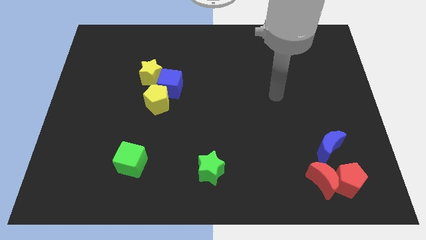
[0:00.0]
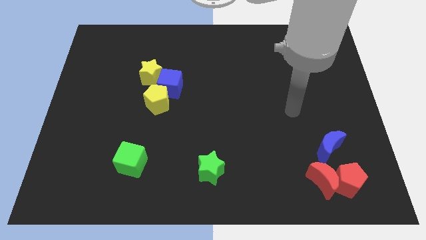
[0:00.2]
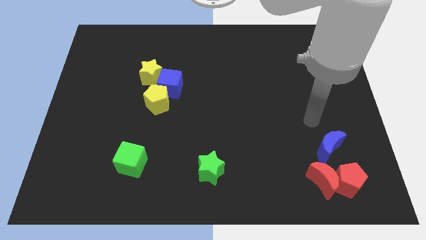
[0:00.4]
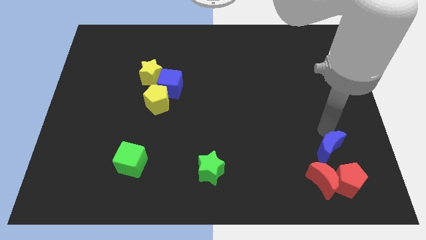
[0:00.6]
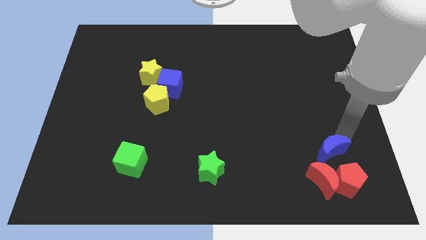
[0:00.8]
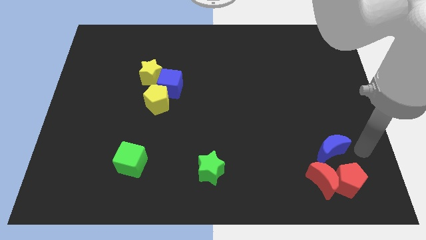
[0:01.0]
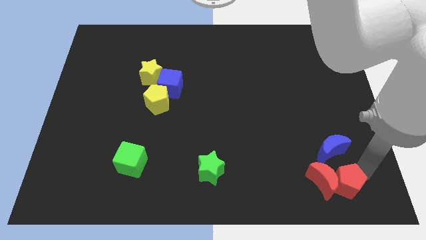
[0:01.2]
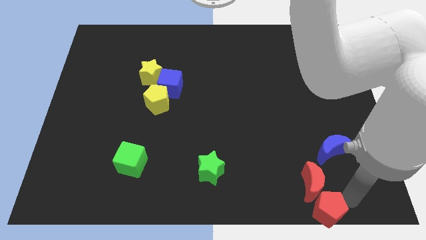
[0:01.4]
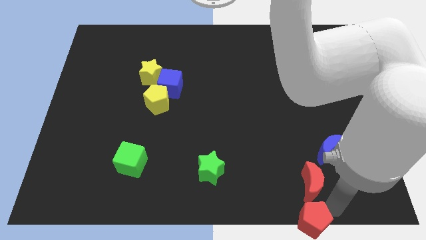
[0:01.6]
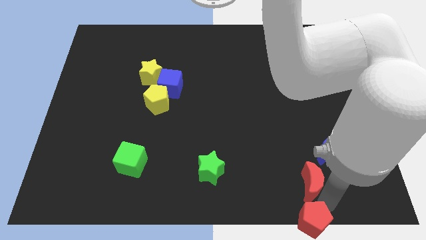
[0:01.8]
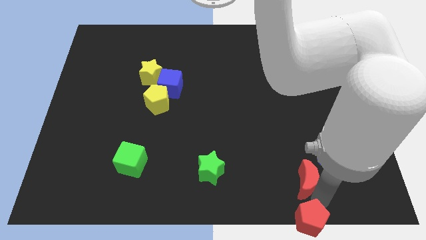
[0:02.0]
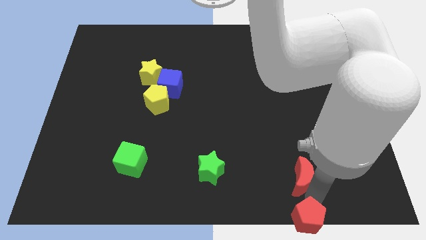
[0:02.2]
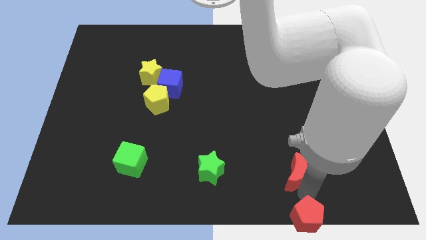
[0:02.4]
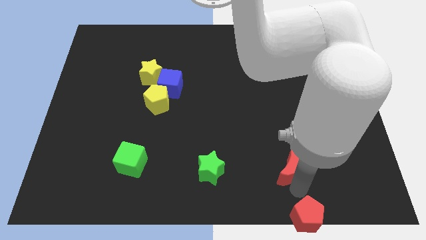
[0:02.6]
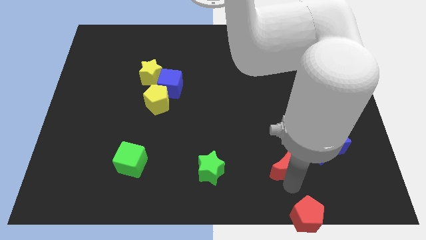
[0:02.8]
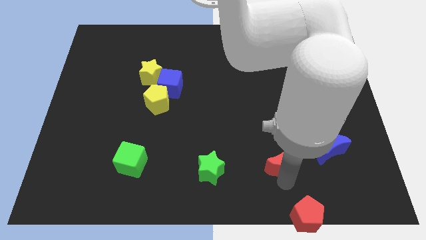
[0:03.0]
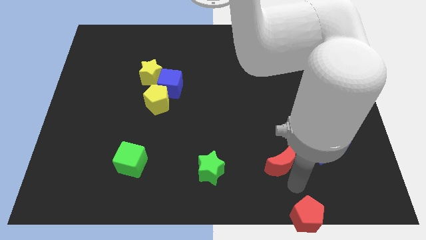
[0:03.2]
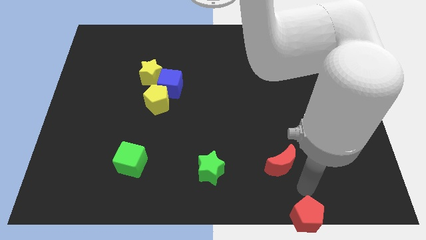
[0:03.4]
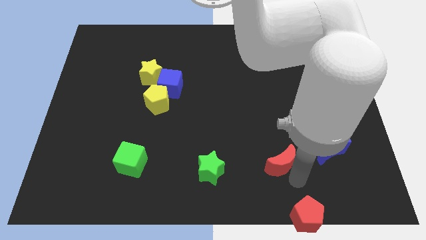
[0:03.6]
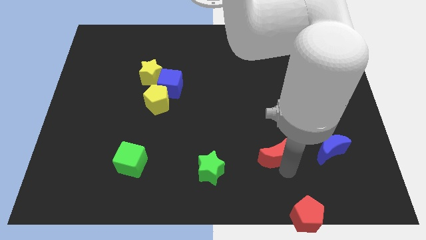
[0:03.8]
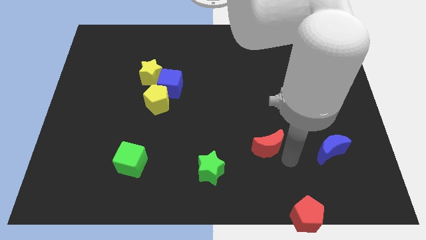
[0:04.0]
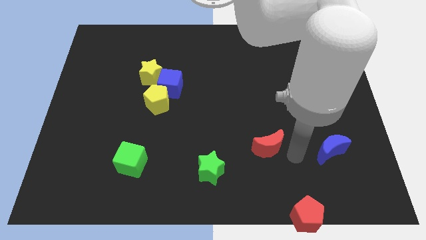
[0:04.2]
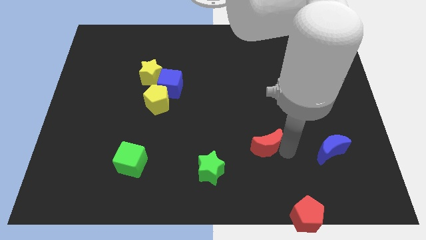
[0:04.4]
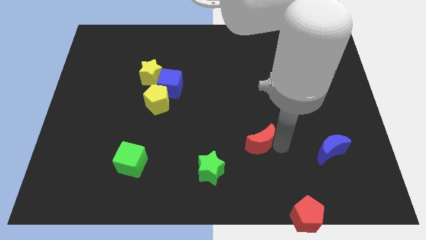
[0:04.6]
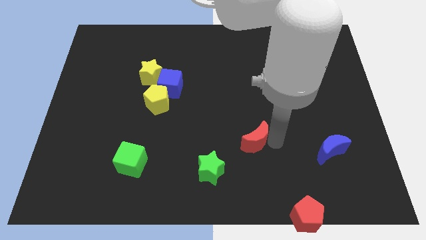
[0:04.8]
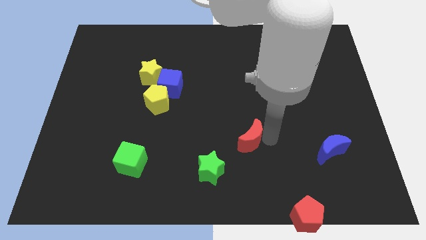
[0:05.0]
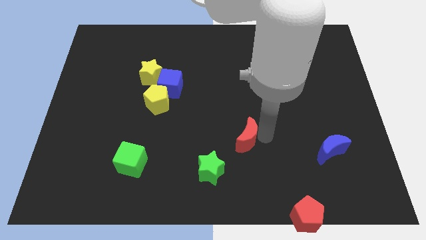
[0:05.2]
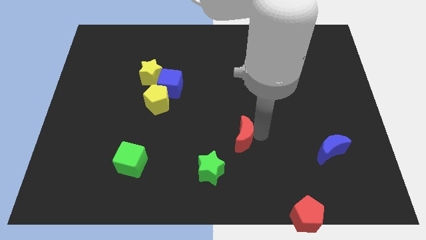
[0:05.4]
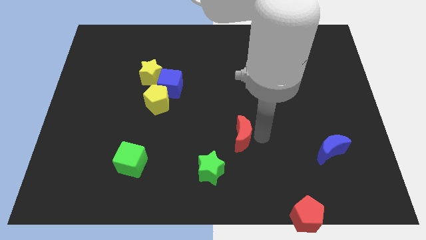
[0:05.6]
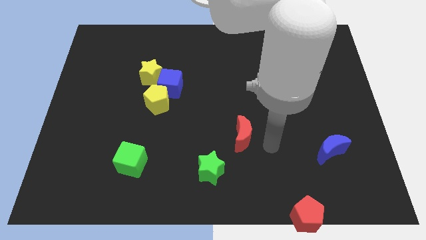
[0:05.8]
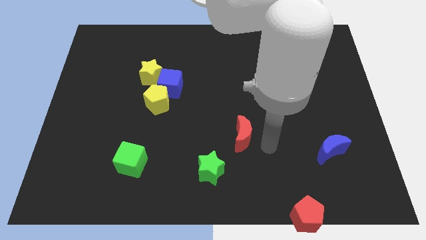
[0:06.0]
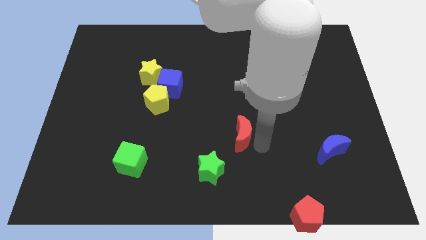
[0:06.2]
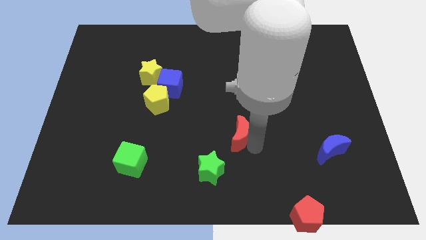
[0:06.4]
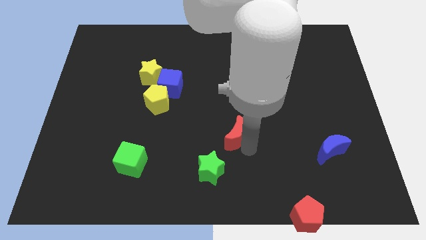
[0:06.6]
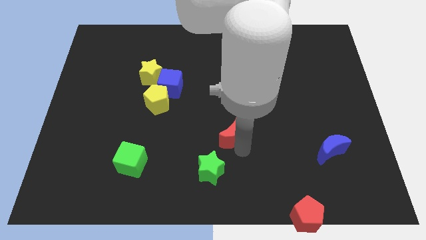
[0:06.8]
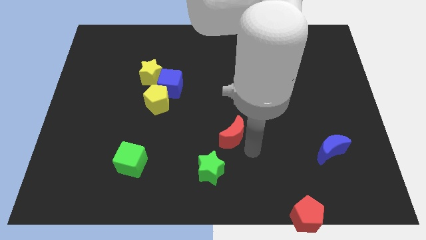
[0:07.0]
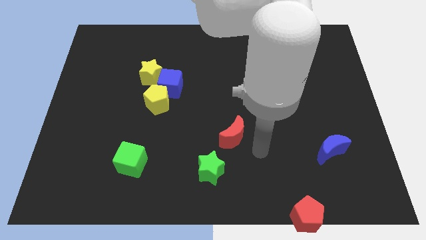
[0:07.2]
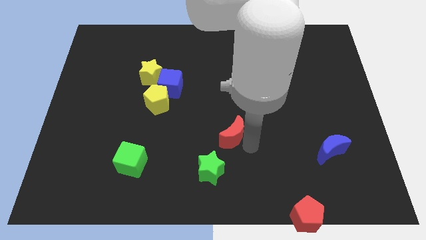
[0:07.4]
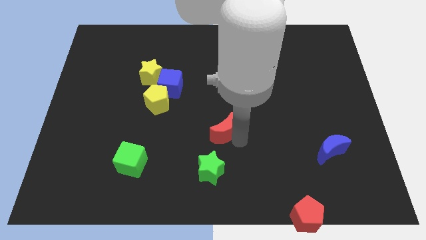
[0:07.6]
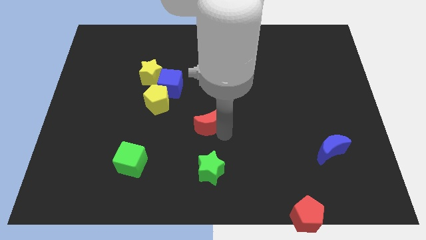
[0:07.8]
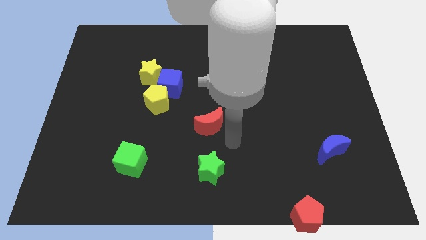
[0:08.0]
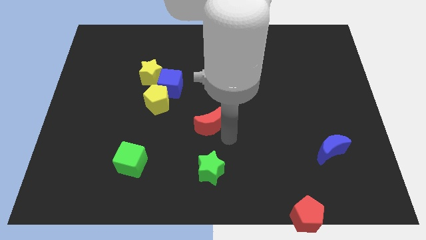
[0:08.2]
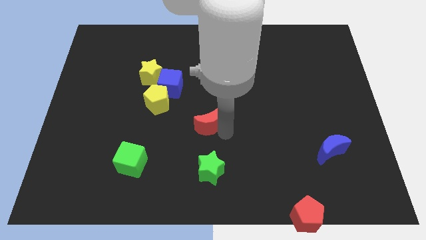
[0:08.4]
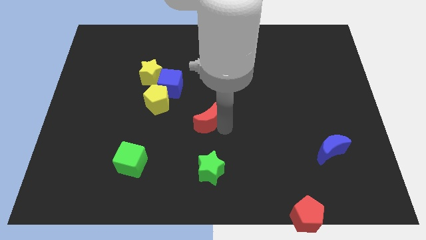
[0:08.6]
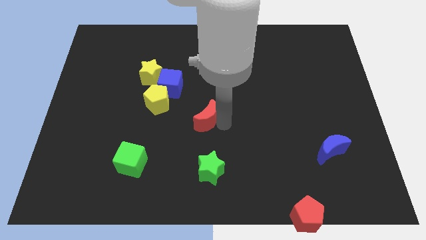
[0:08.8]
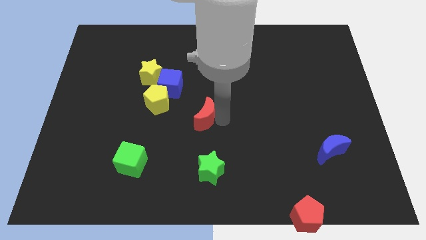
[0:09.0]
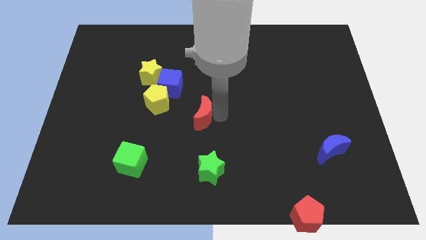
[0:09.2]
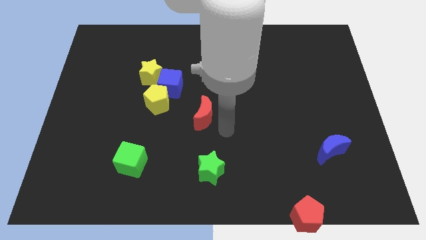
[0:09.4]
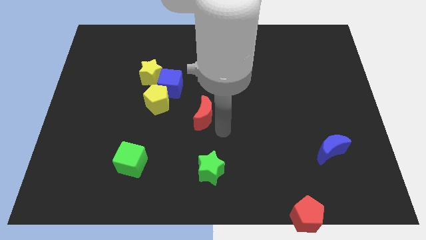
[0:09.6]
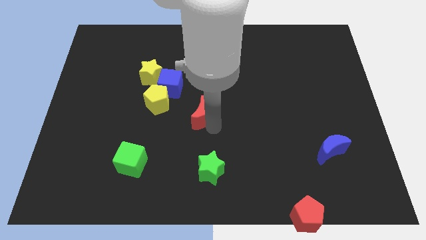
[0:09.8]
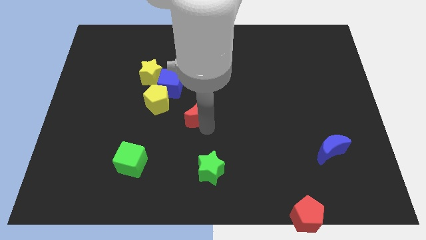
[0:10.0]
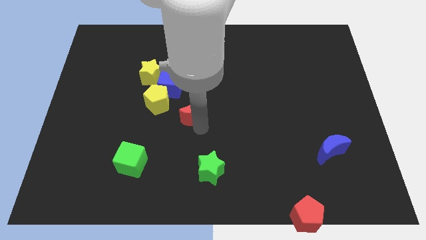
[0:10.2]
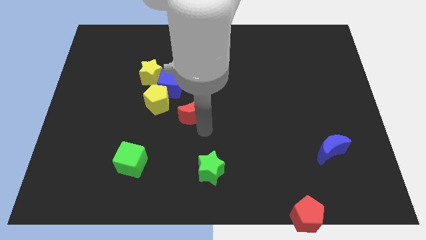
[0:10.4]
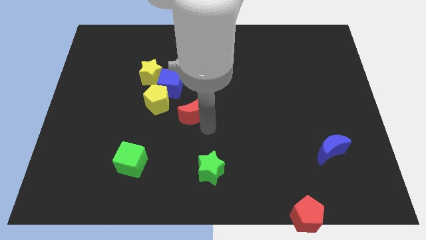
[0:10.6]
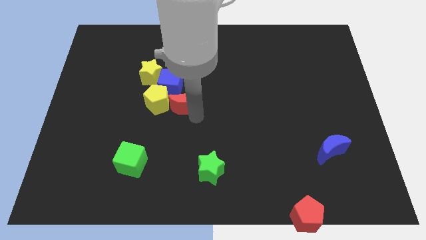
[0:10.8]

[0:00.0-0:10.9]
push the red moon to the bottom right side of the yellow star

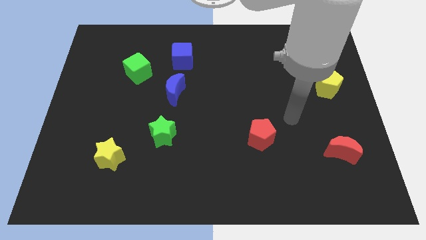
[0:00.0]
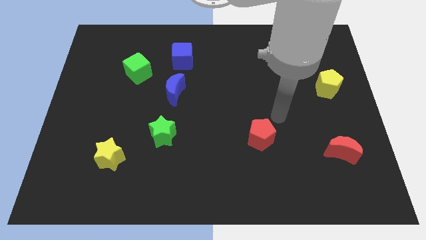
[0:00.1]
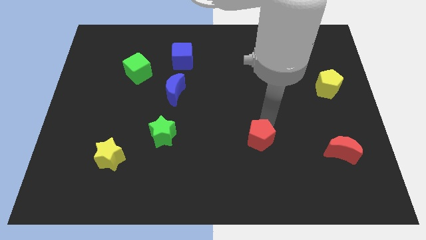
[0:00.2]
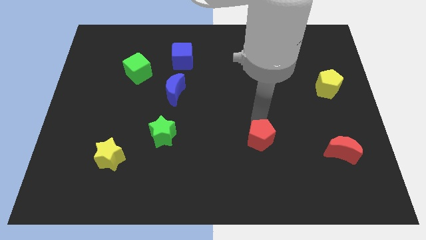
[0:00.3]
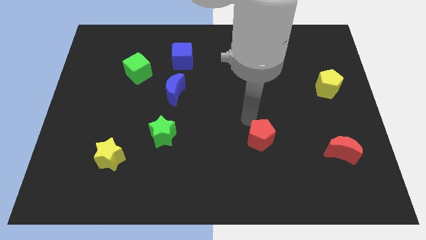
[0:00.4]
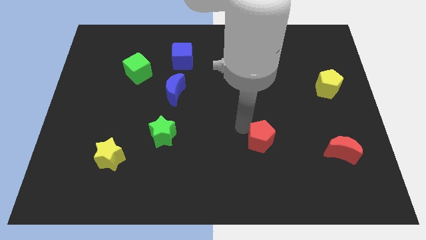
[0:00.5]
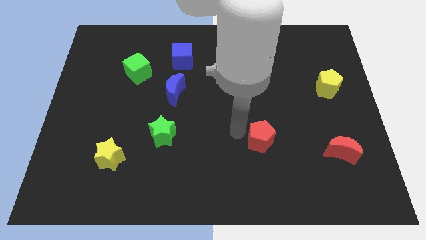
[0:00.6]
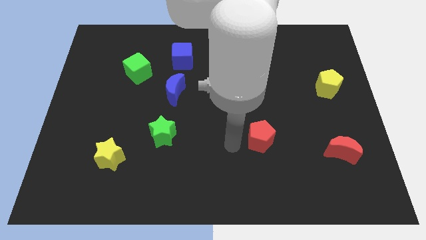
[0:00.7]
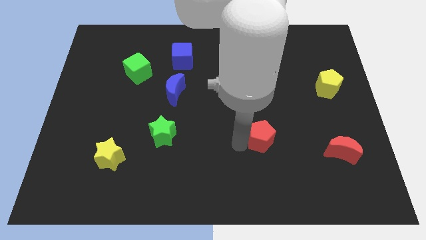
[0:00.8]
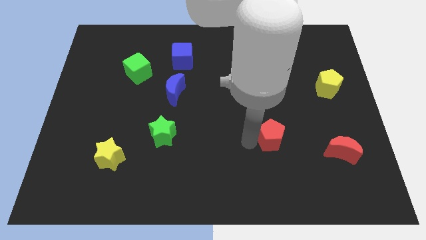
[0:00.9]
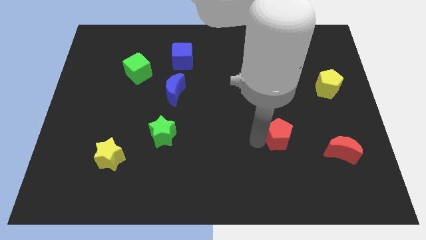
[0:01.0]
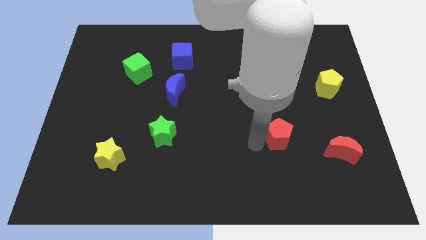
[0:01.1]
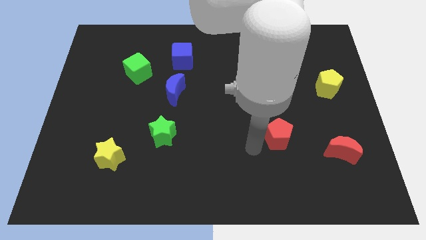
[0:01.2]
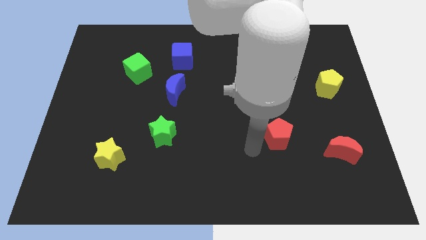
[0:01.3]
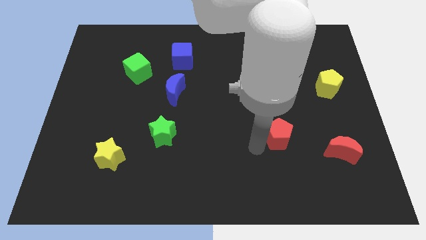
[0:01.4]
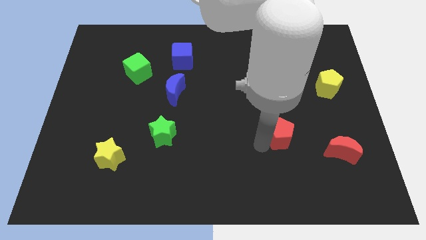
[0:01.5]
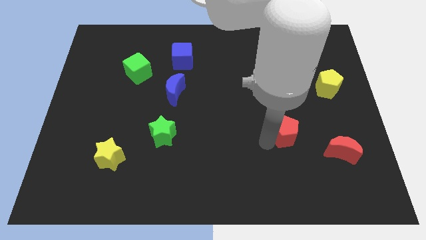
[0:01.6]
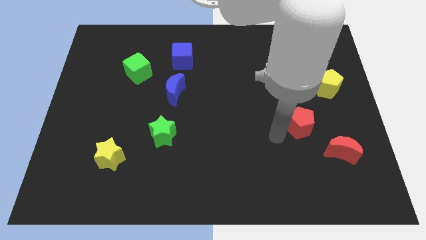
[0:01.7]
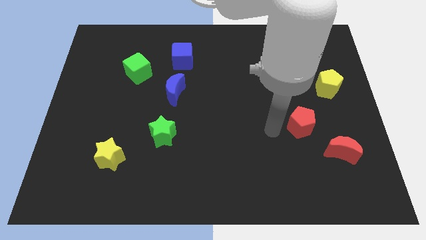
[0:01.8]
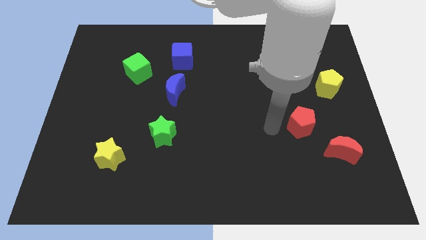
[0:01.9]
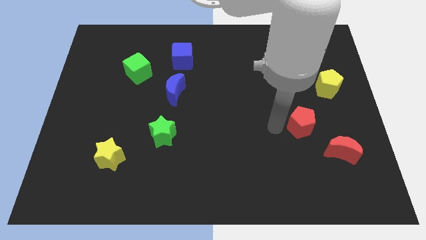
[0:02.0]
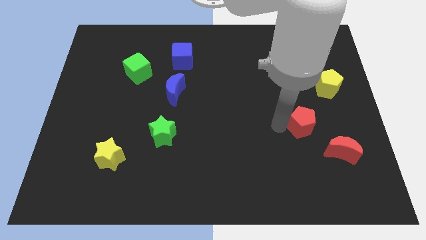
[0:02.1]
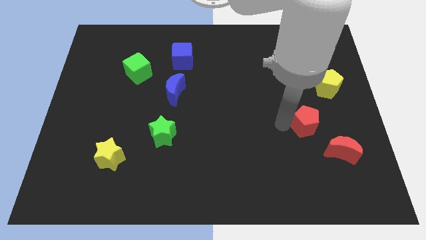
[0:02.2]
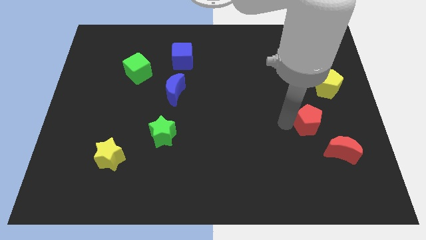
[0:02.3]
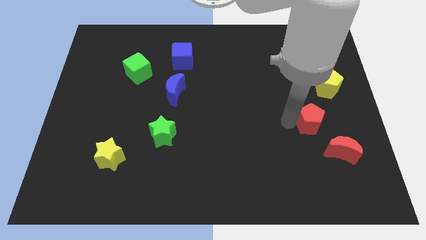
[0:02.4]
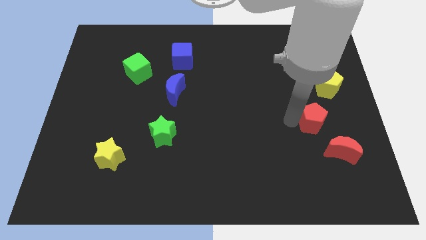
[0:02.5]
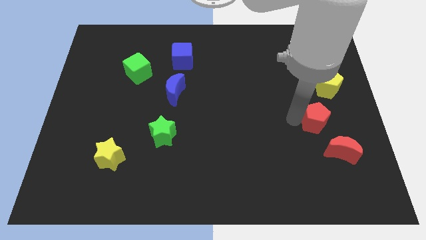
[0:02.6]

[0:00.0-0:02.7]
push the red pentagon to the bottom of the yellow pentagon
